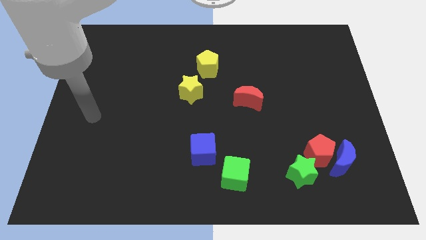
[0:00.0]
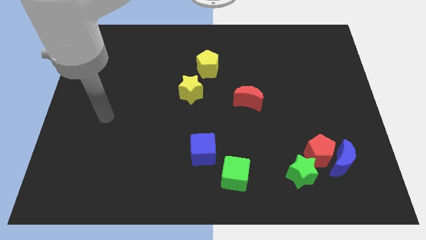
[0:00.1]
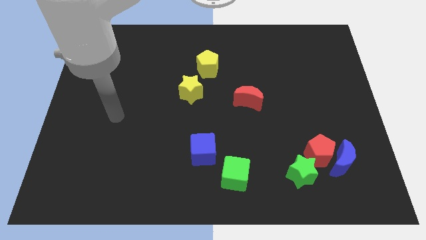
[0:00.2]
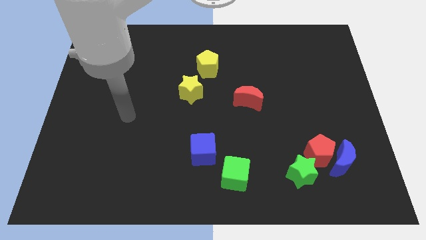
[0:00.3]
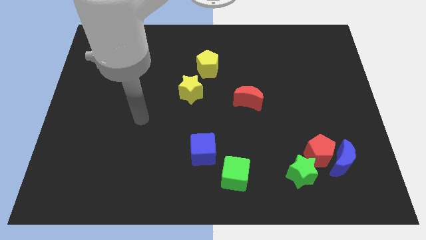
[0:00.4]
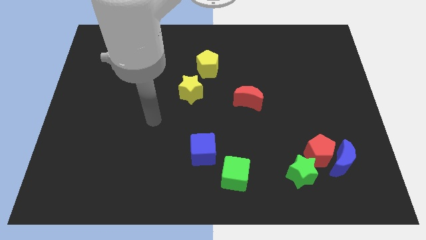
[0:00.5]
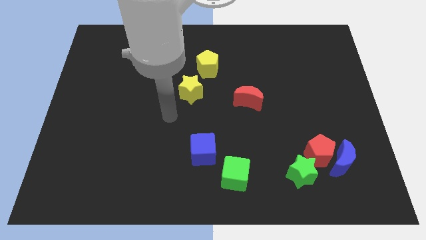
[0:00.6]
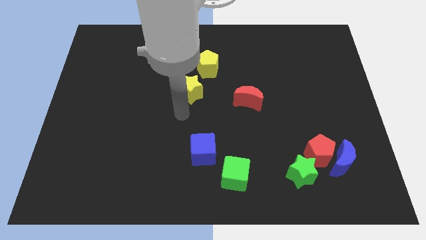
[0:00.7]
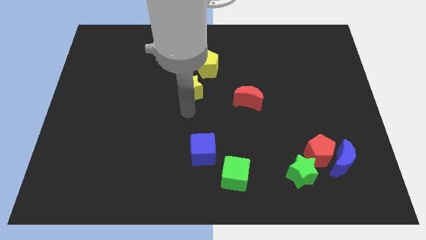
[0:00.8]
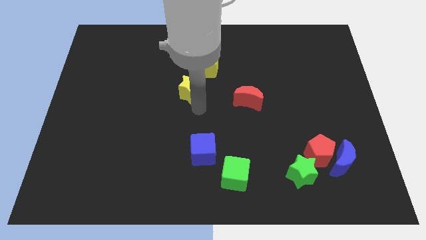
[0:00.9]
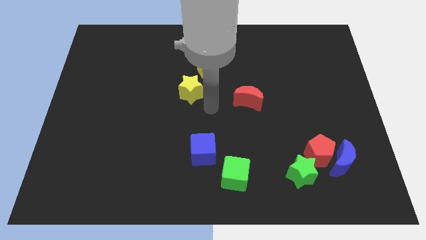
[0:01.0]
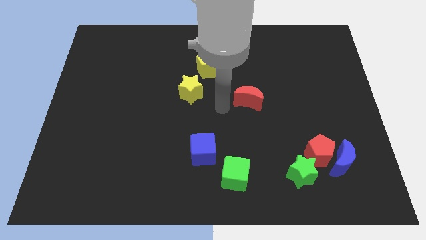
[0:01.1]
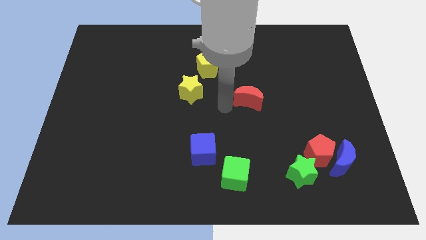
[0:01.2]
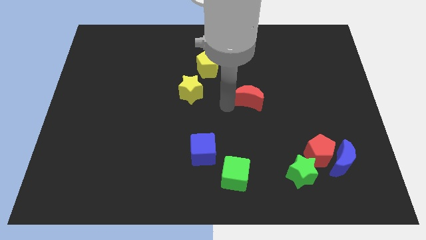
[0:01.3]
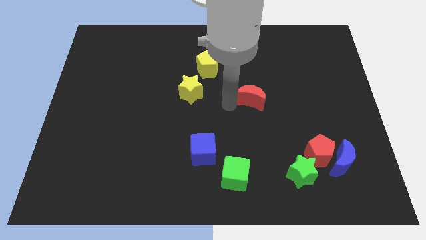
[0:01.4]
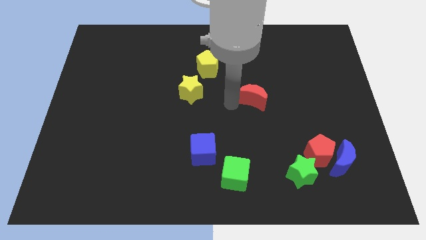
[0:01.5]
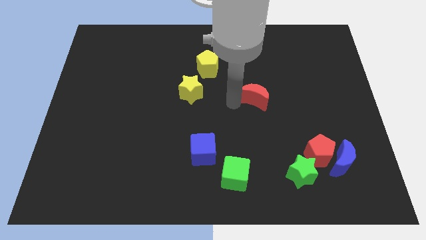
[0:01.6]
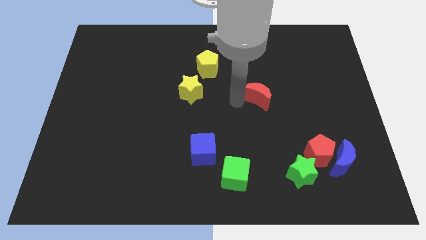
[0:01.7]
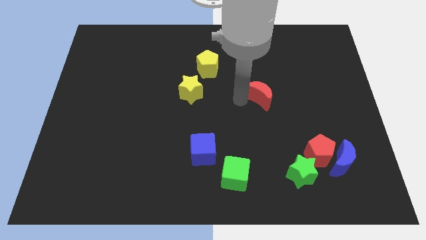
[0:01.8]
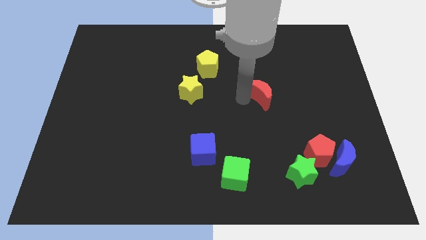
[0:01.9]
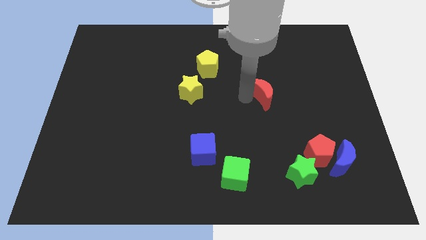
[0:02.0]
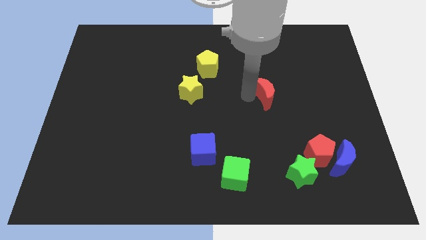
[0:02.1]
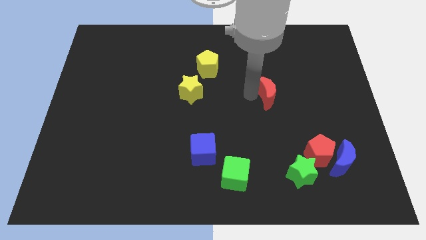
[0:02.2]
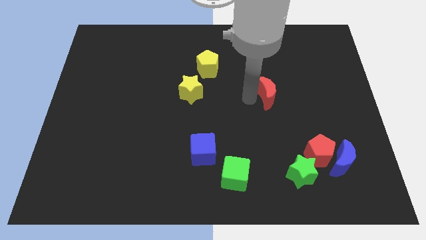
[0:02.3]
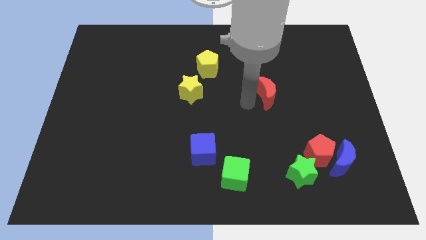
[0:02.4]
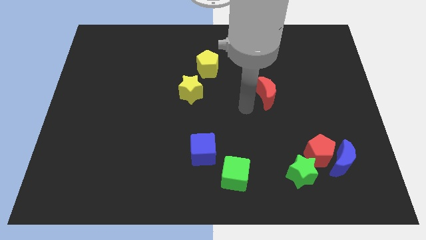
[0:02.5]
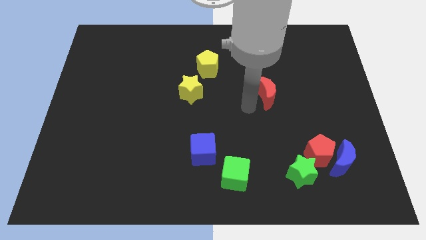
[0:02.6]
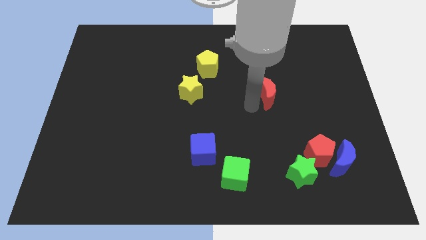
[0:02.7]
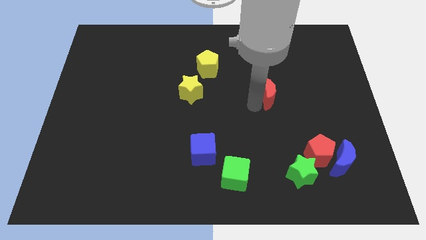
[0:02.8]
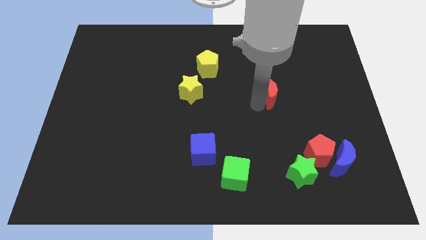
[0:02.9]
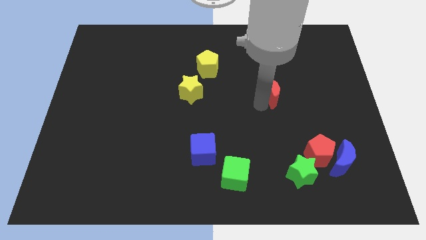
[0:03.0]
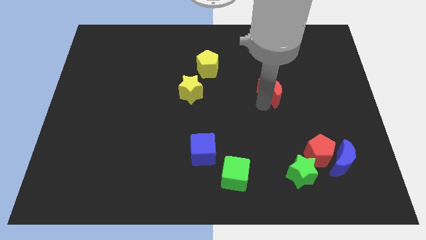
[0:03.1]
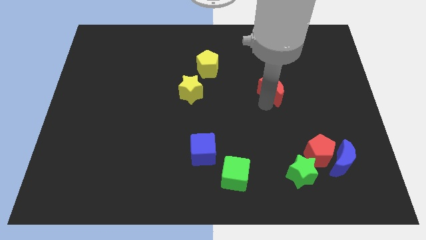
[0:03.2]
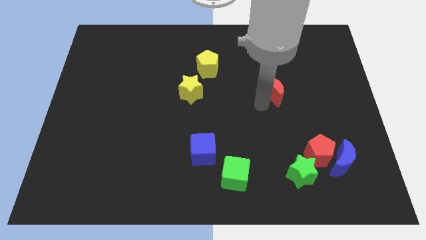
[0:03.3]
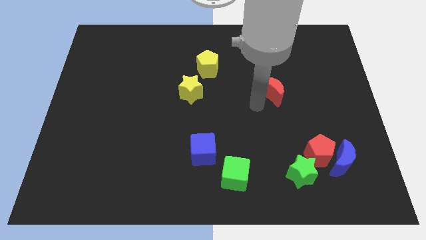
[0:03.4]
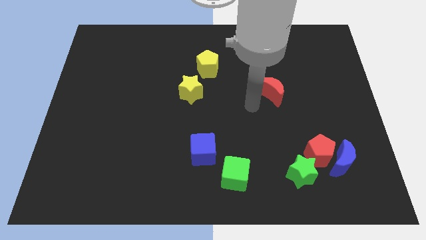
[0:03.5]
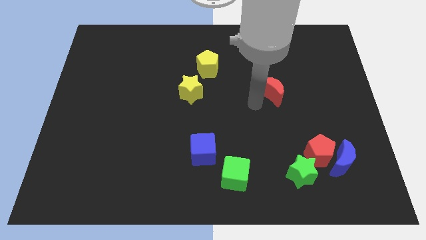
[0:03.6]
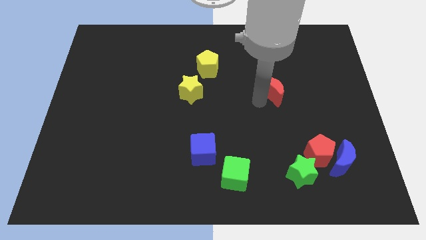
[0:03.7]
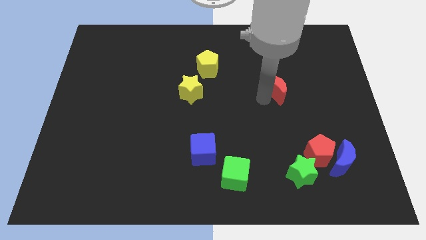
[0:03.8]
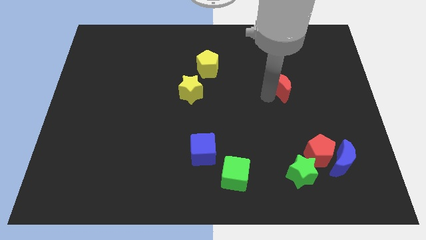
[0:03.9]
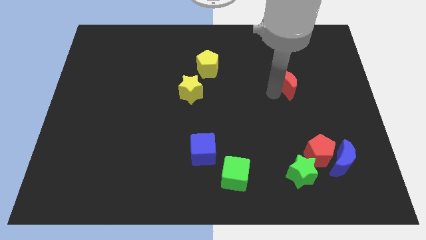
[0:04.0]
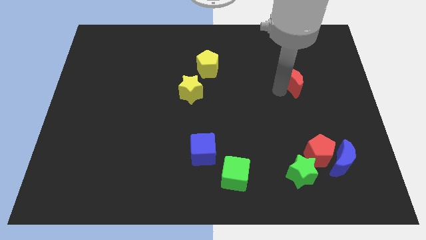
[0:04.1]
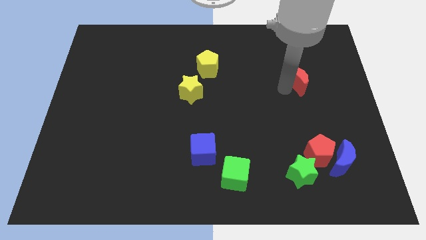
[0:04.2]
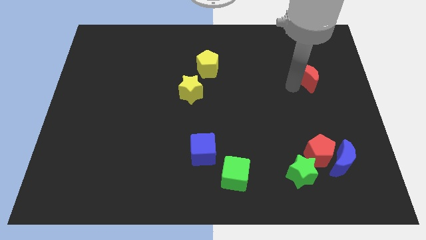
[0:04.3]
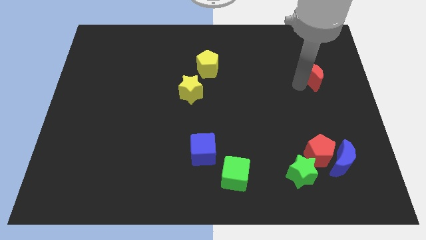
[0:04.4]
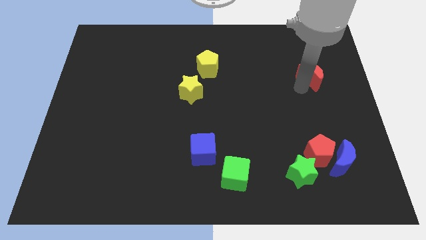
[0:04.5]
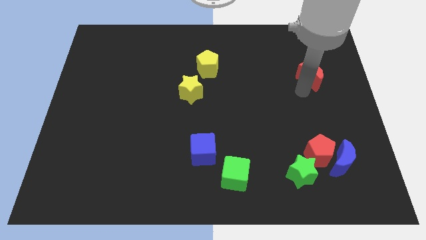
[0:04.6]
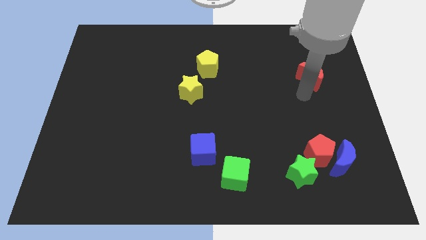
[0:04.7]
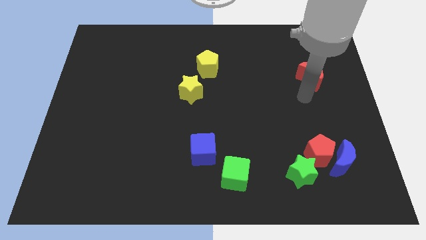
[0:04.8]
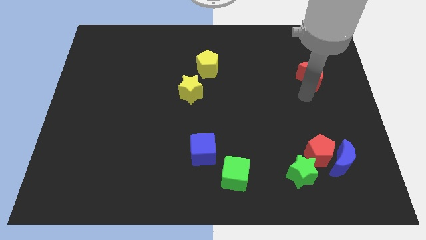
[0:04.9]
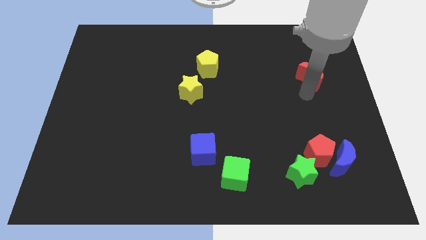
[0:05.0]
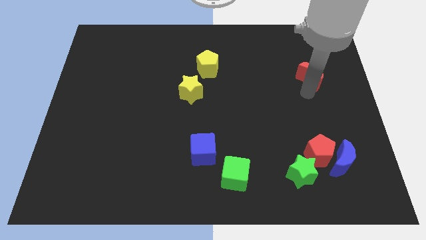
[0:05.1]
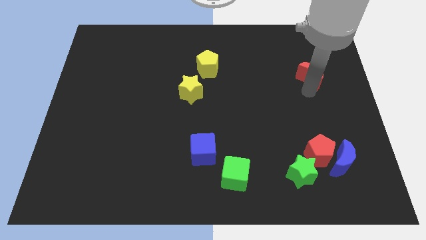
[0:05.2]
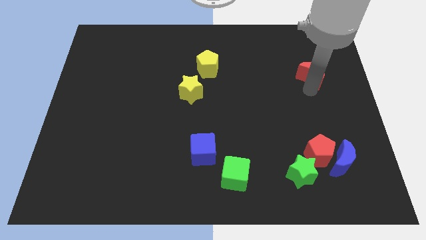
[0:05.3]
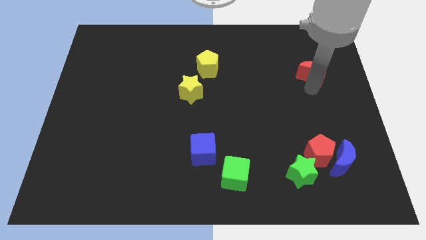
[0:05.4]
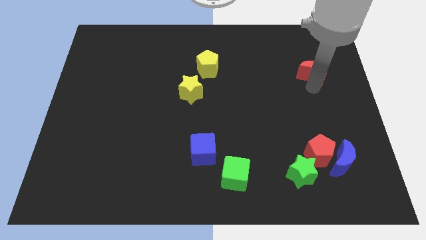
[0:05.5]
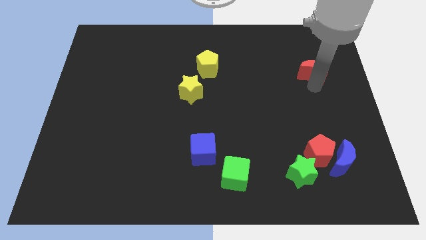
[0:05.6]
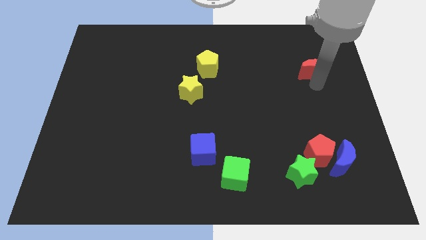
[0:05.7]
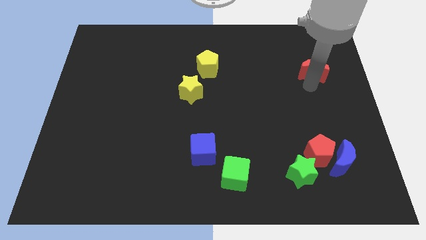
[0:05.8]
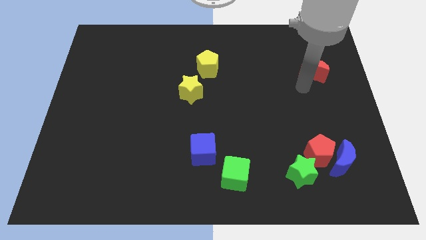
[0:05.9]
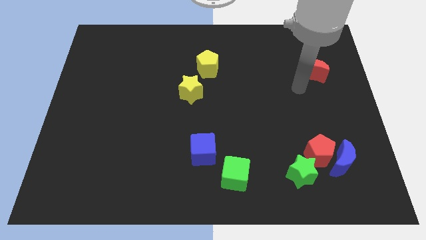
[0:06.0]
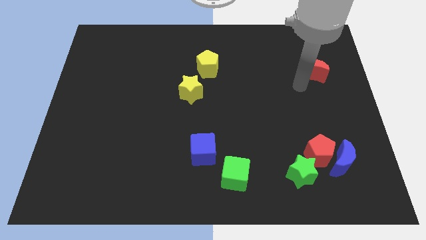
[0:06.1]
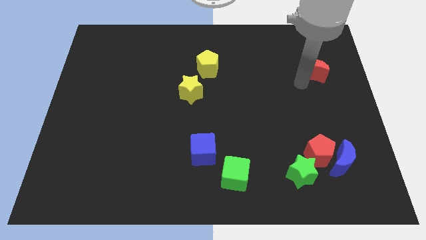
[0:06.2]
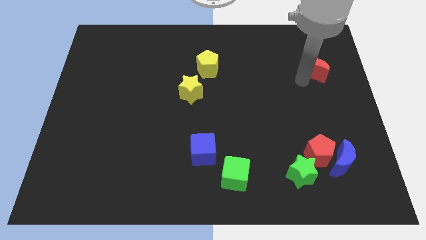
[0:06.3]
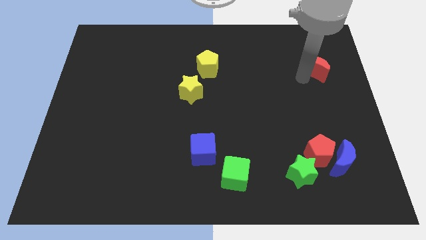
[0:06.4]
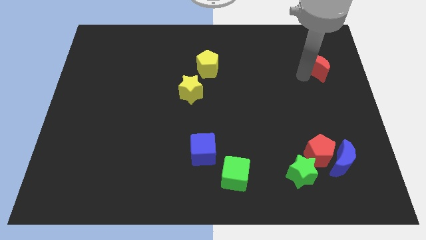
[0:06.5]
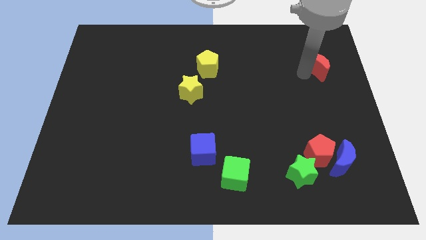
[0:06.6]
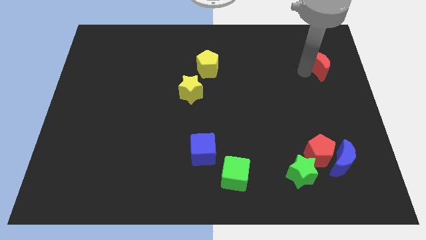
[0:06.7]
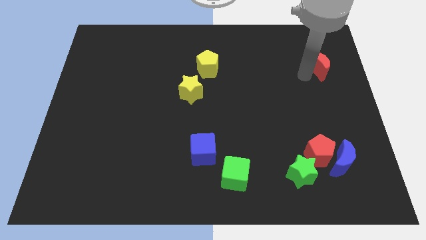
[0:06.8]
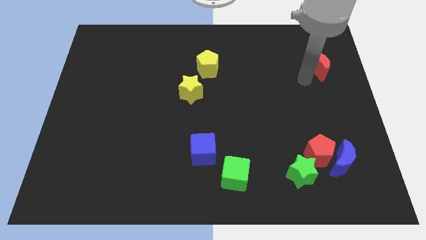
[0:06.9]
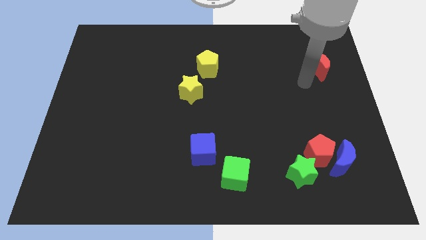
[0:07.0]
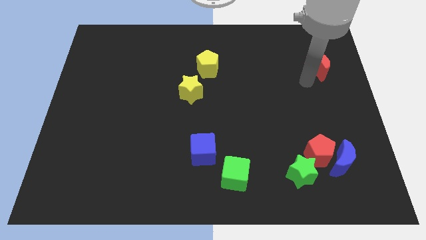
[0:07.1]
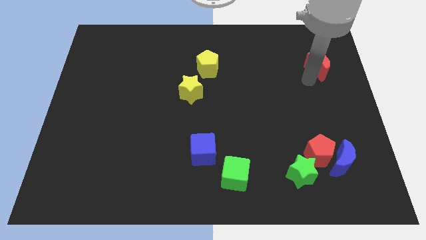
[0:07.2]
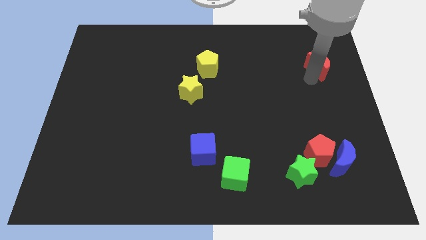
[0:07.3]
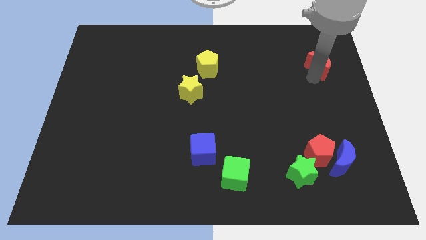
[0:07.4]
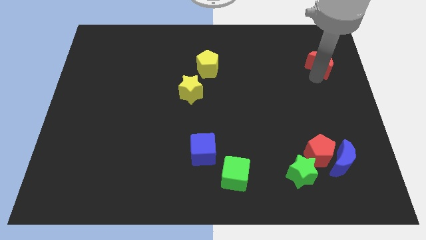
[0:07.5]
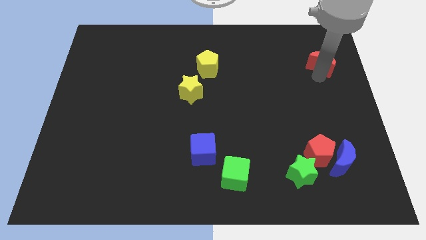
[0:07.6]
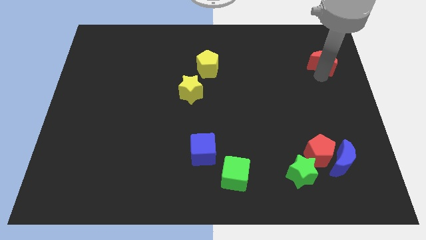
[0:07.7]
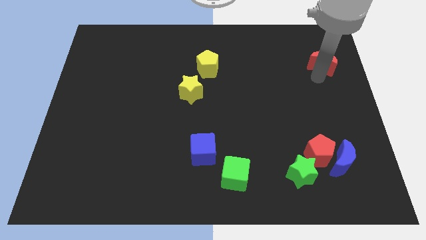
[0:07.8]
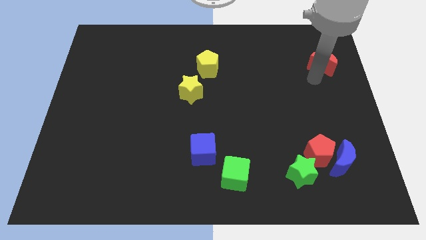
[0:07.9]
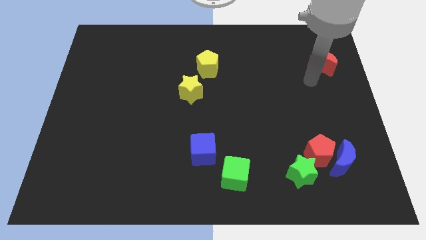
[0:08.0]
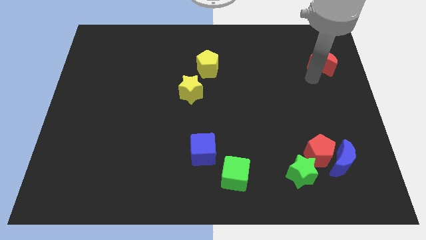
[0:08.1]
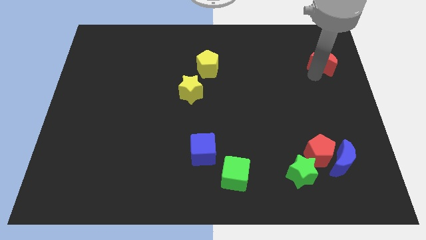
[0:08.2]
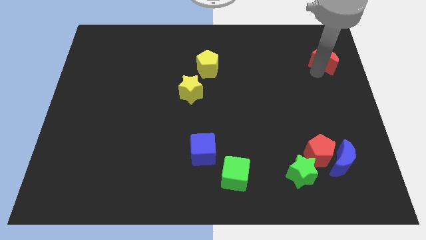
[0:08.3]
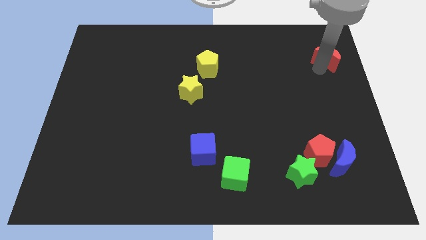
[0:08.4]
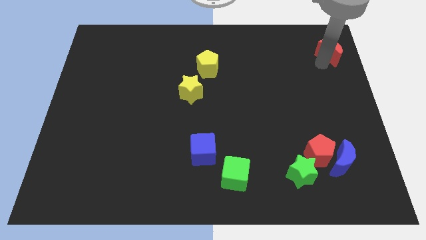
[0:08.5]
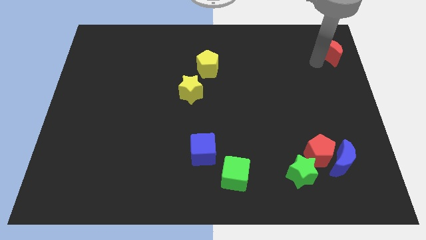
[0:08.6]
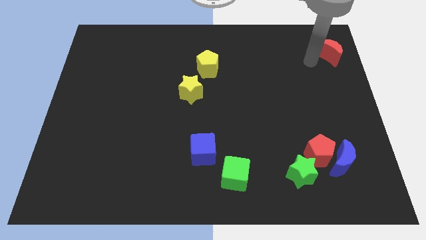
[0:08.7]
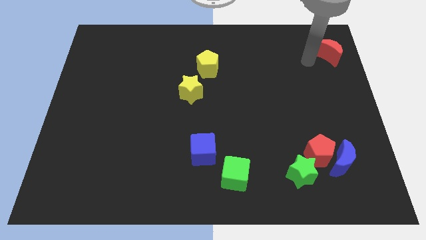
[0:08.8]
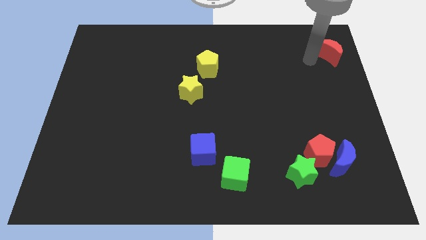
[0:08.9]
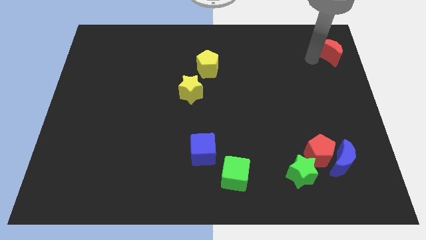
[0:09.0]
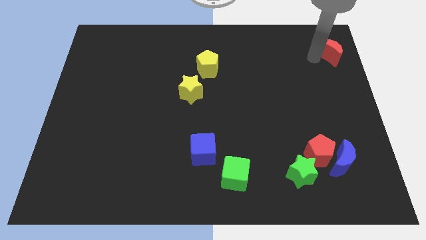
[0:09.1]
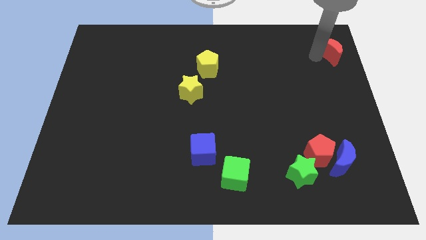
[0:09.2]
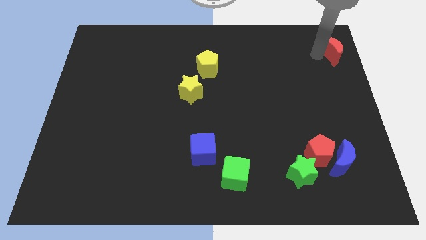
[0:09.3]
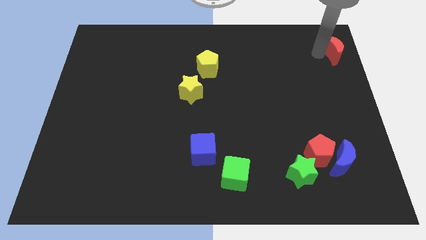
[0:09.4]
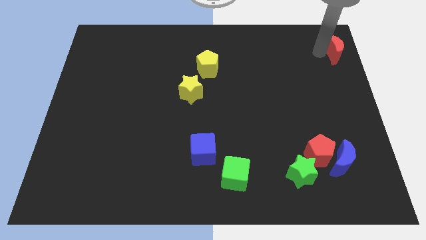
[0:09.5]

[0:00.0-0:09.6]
put the red moon to the top right
